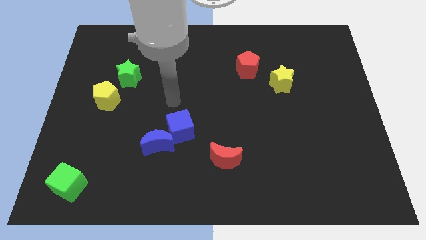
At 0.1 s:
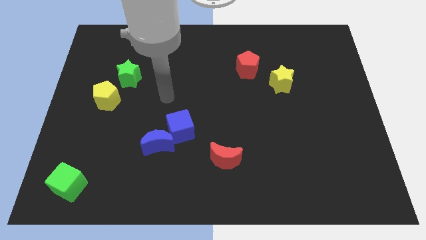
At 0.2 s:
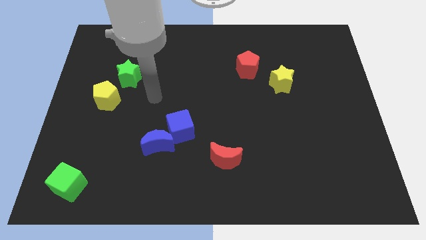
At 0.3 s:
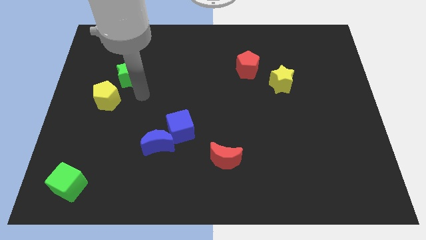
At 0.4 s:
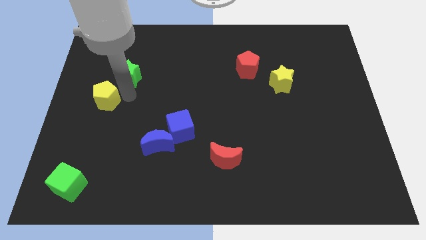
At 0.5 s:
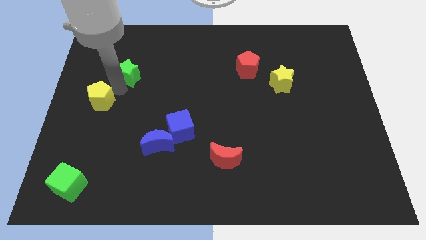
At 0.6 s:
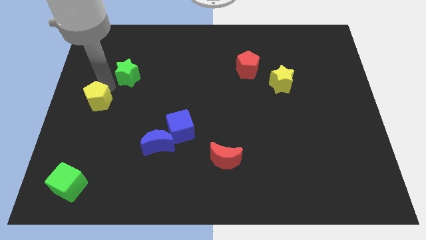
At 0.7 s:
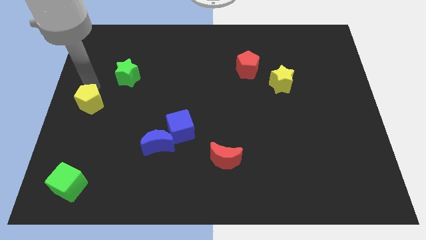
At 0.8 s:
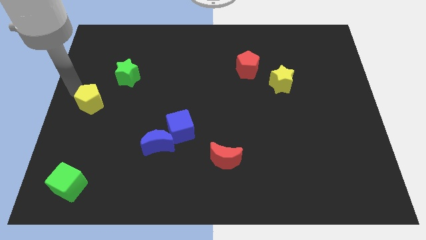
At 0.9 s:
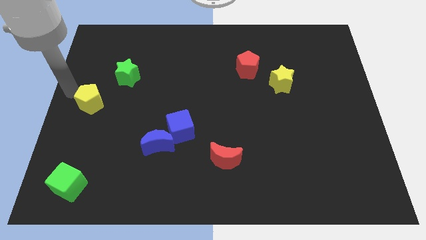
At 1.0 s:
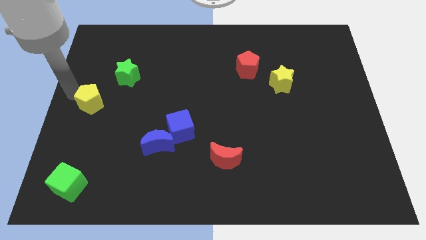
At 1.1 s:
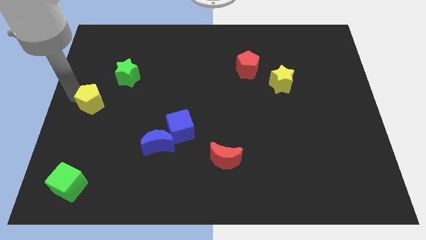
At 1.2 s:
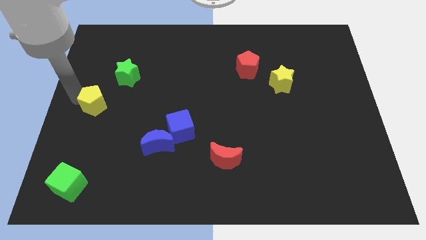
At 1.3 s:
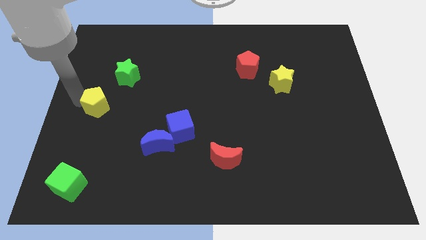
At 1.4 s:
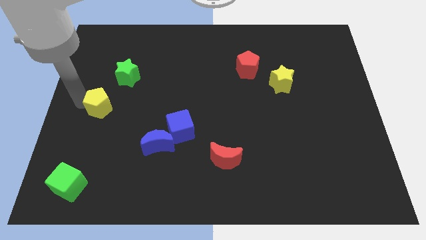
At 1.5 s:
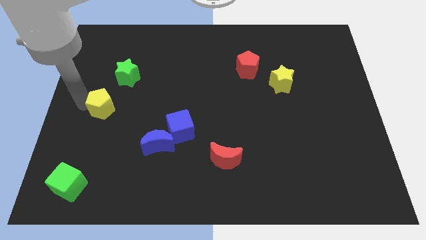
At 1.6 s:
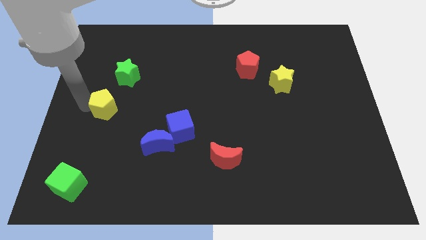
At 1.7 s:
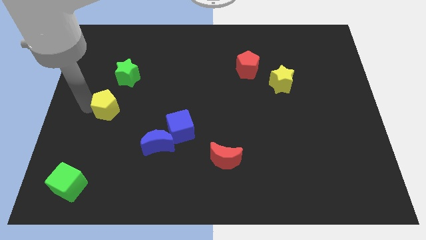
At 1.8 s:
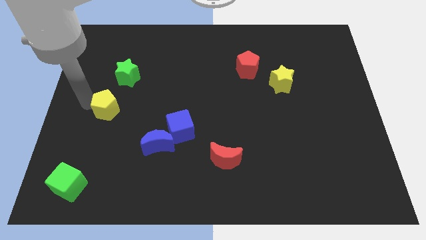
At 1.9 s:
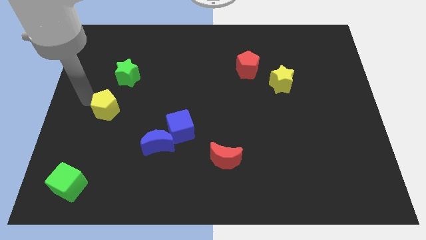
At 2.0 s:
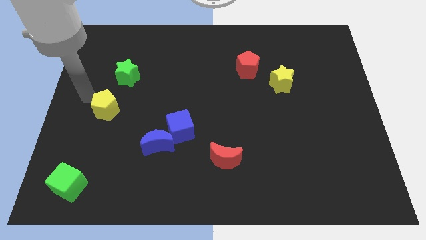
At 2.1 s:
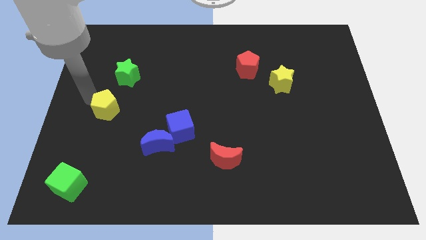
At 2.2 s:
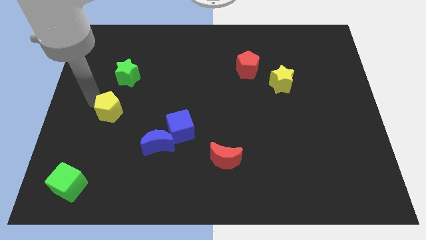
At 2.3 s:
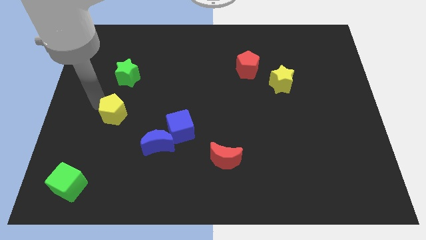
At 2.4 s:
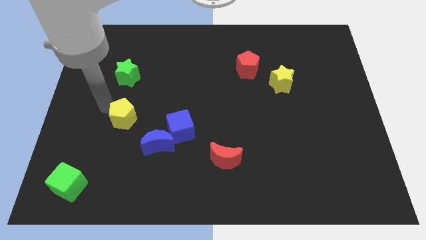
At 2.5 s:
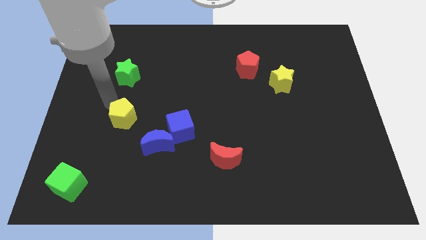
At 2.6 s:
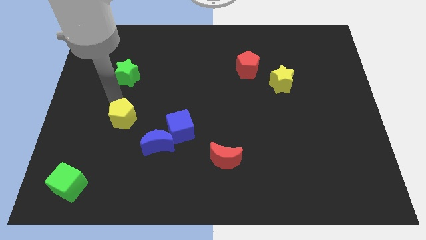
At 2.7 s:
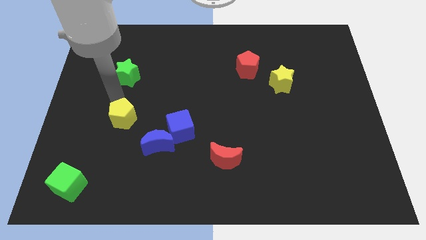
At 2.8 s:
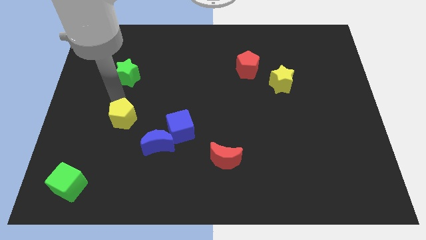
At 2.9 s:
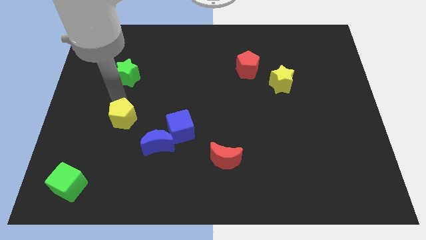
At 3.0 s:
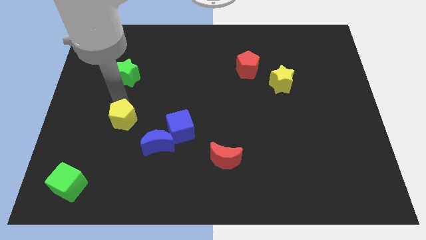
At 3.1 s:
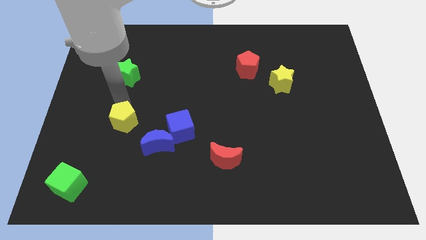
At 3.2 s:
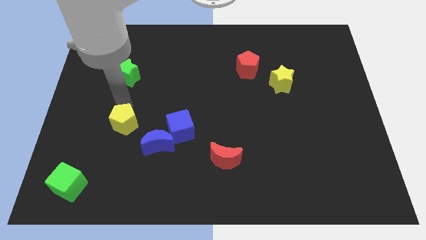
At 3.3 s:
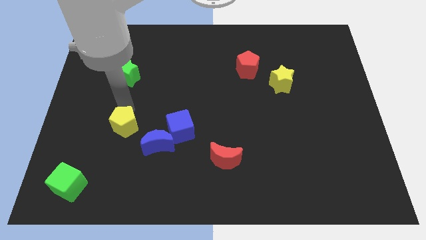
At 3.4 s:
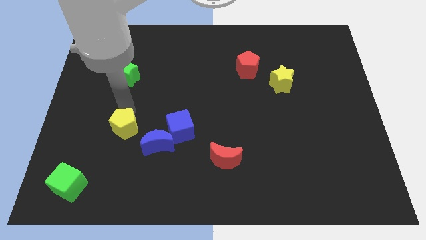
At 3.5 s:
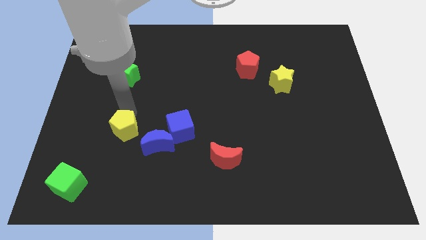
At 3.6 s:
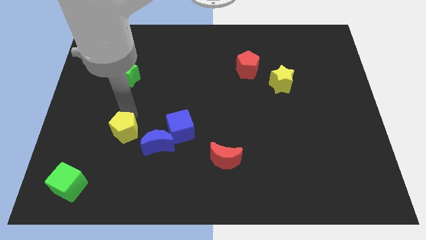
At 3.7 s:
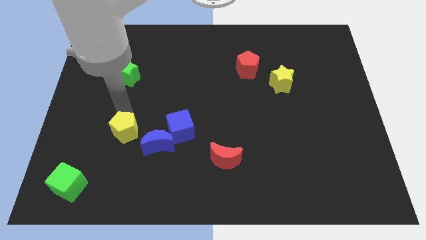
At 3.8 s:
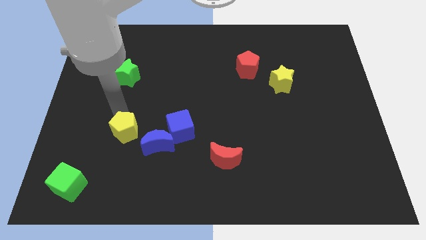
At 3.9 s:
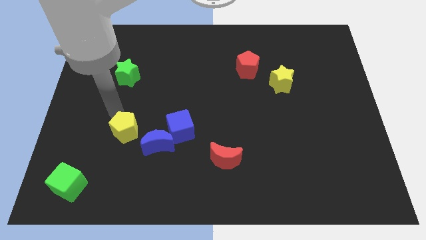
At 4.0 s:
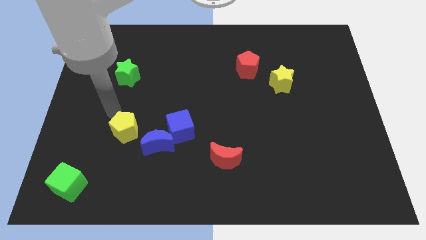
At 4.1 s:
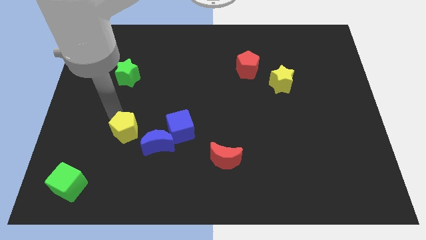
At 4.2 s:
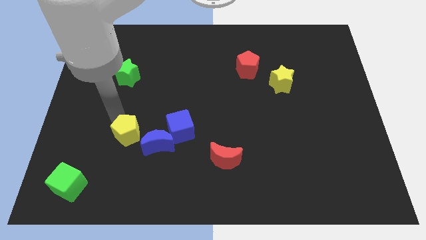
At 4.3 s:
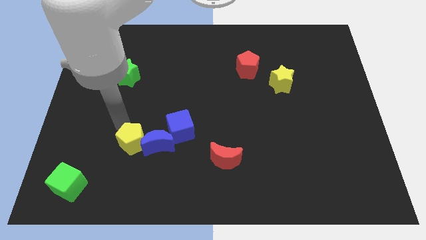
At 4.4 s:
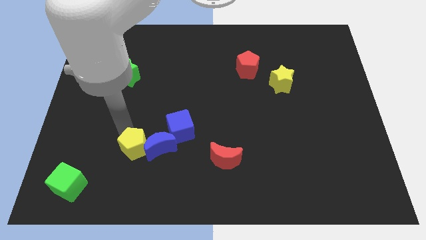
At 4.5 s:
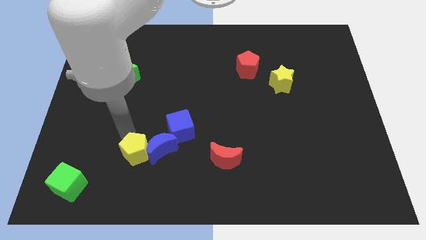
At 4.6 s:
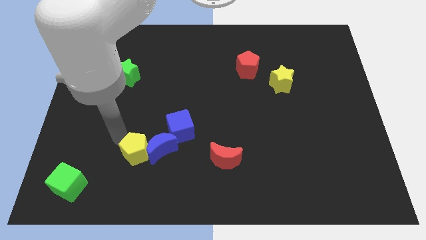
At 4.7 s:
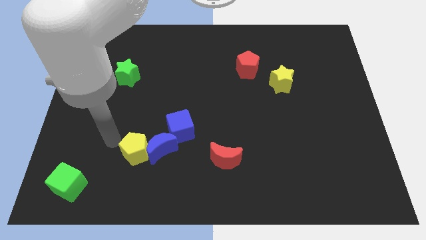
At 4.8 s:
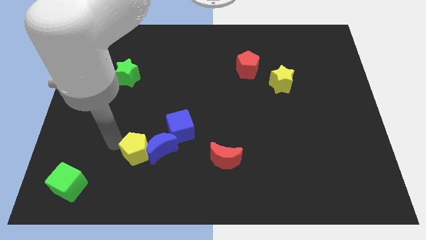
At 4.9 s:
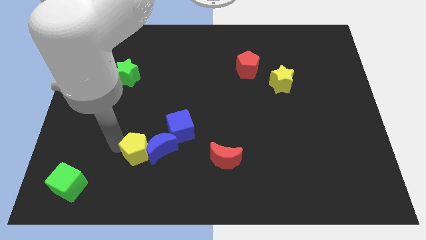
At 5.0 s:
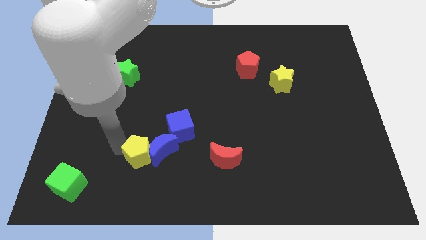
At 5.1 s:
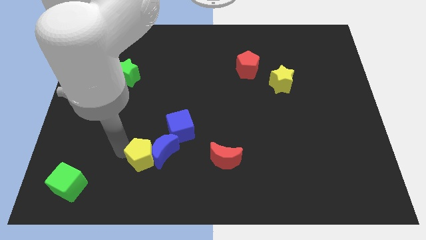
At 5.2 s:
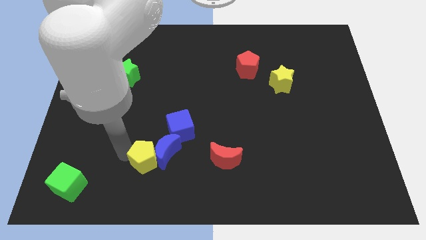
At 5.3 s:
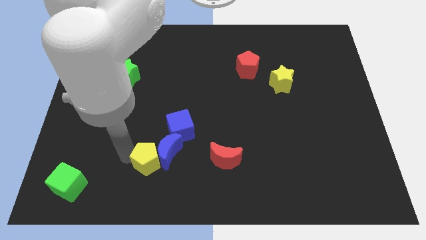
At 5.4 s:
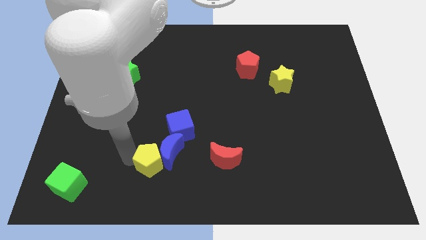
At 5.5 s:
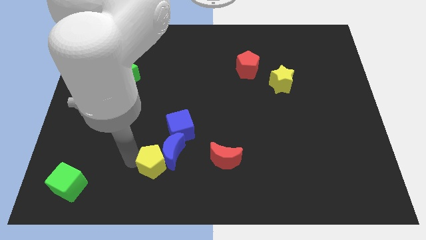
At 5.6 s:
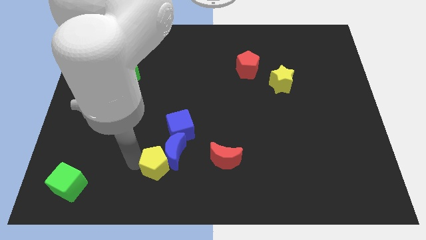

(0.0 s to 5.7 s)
slide the yellow pentagon to the bottom of the blue cube

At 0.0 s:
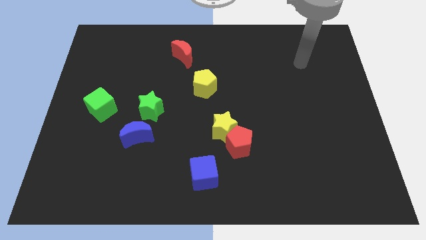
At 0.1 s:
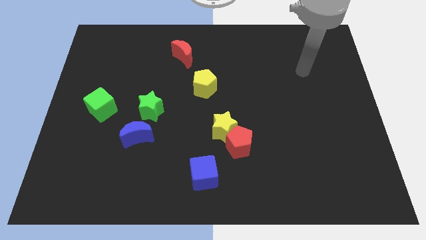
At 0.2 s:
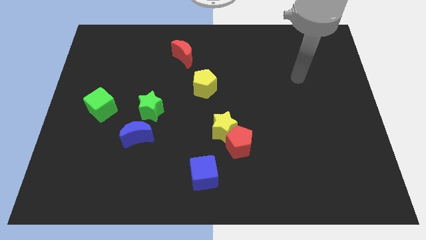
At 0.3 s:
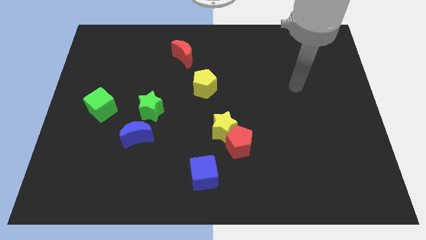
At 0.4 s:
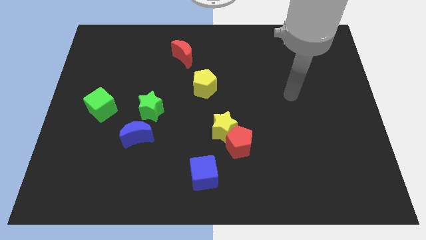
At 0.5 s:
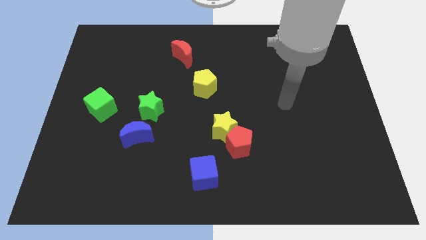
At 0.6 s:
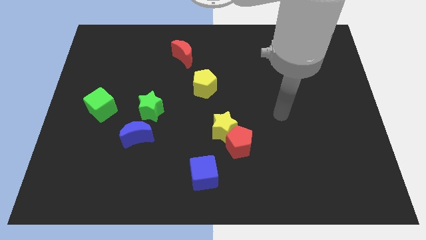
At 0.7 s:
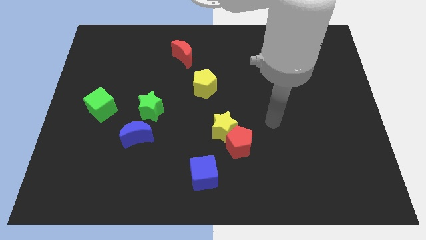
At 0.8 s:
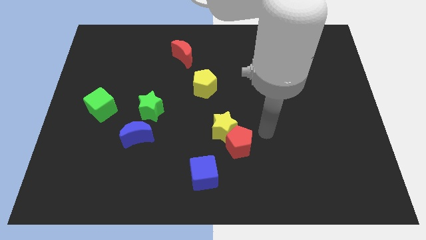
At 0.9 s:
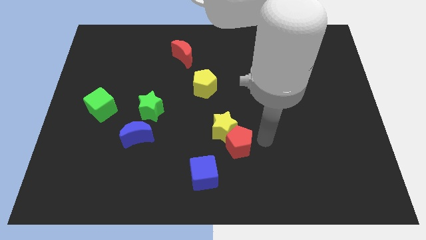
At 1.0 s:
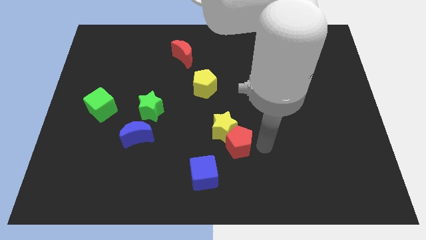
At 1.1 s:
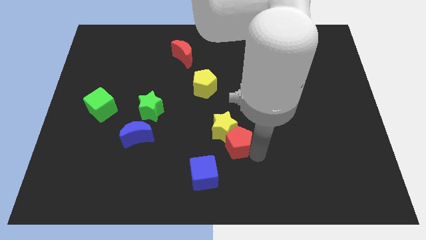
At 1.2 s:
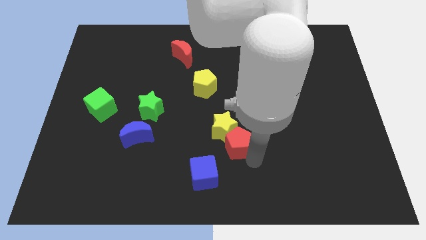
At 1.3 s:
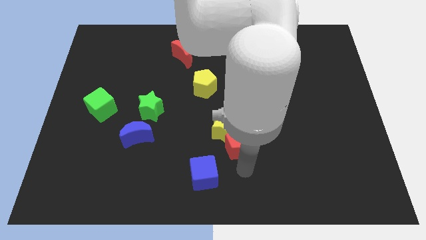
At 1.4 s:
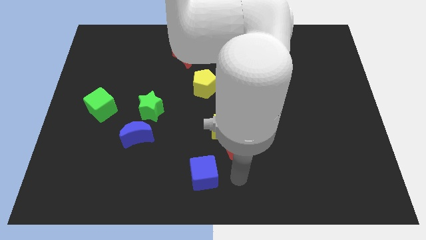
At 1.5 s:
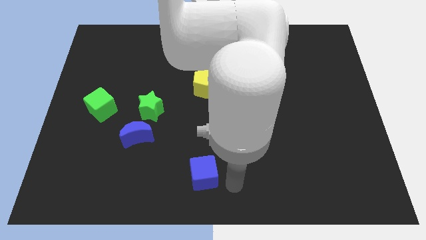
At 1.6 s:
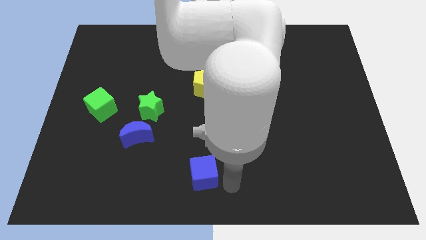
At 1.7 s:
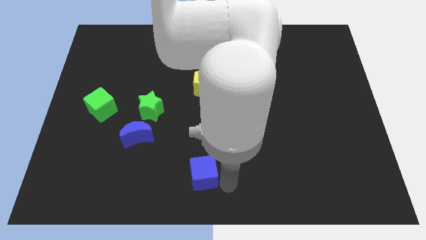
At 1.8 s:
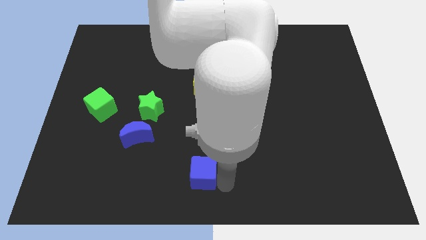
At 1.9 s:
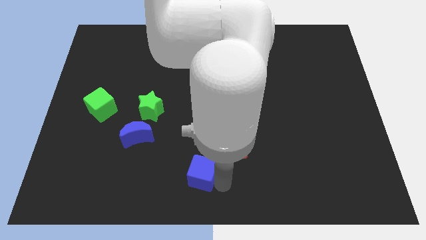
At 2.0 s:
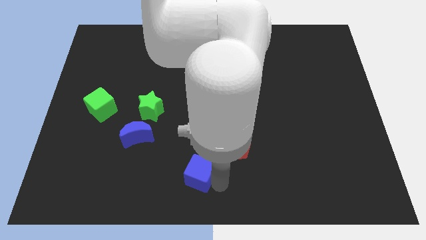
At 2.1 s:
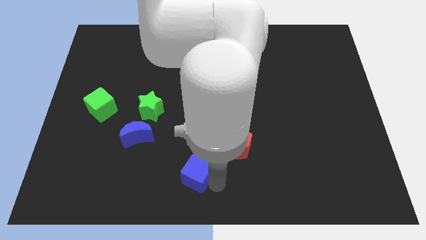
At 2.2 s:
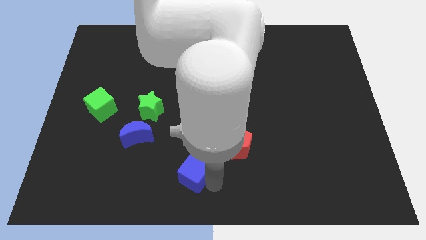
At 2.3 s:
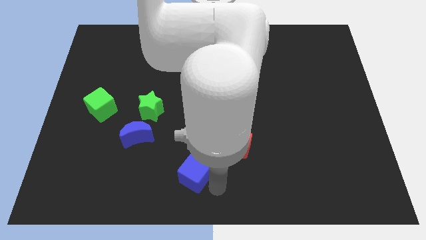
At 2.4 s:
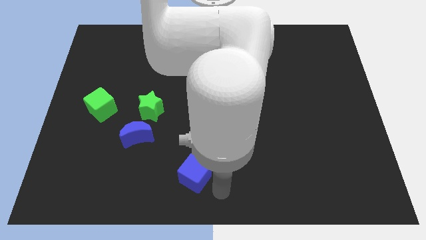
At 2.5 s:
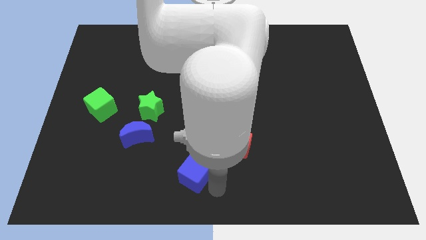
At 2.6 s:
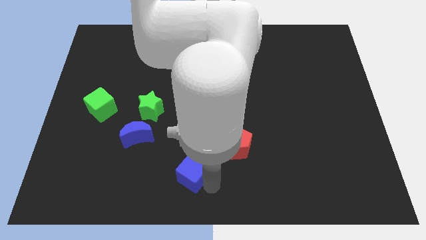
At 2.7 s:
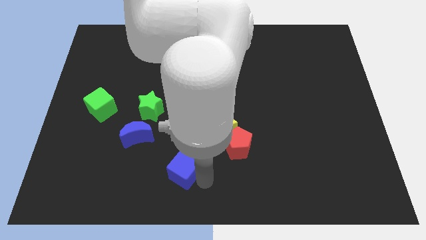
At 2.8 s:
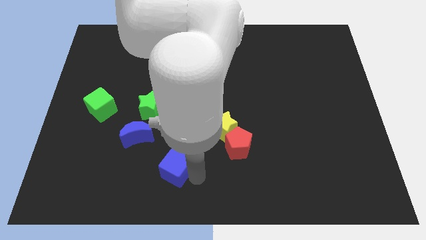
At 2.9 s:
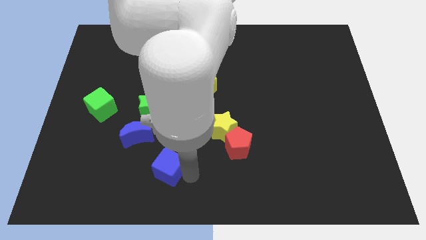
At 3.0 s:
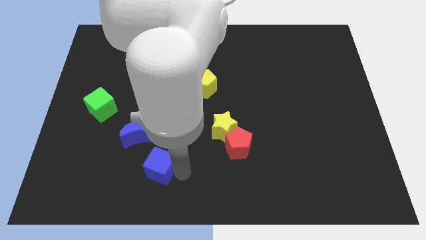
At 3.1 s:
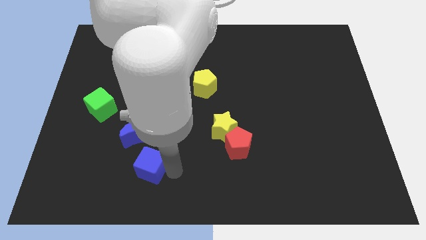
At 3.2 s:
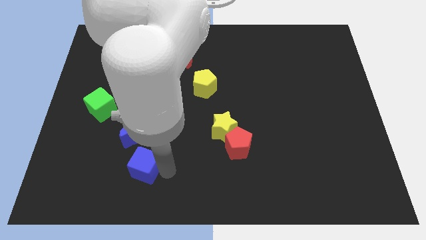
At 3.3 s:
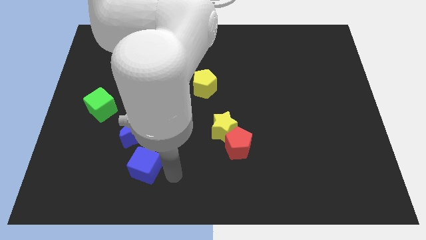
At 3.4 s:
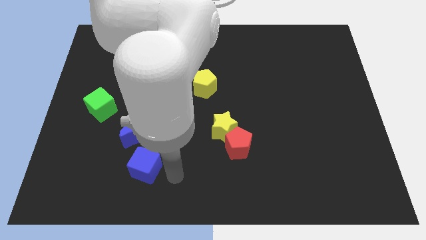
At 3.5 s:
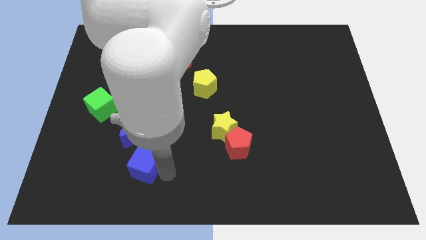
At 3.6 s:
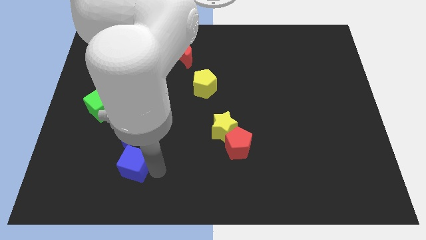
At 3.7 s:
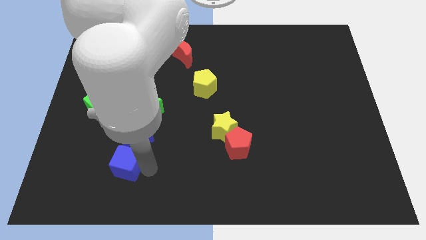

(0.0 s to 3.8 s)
slide the blue cube to the bottom left of the blue moon
